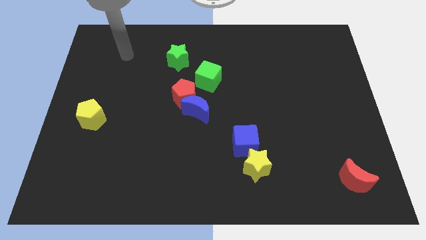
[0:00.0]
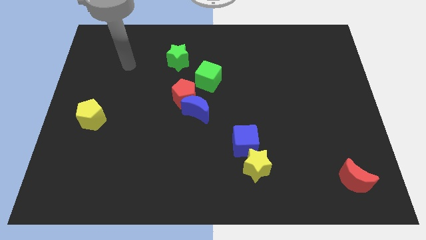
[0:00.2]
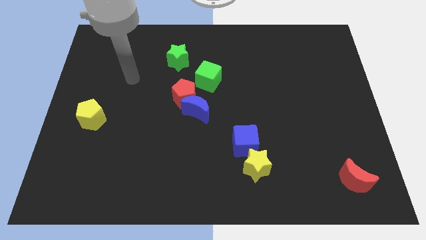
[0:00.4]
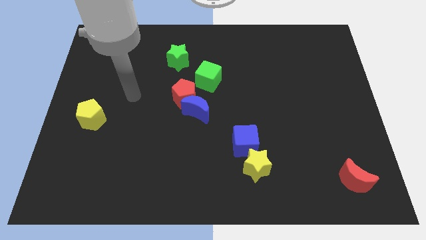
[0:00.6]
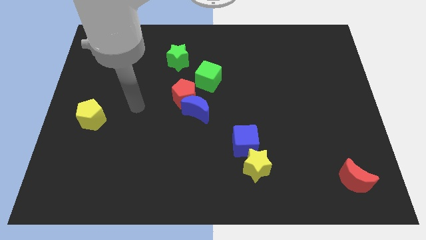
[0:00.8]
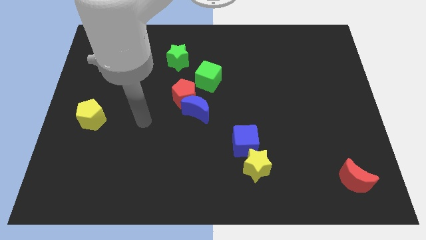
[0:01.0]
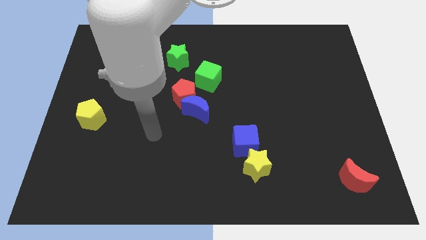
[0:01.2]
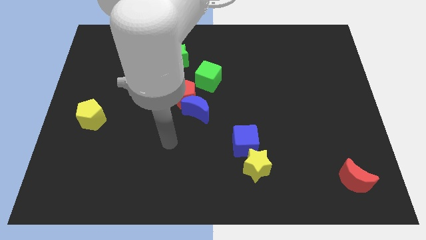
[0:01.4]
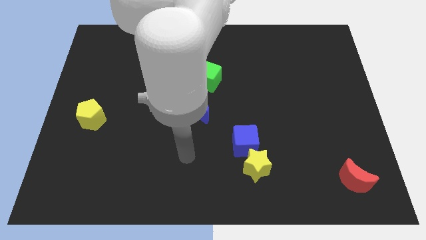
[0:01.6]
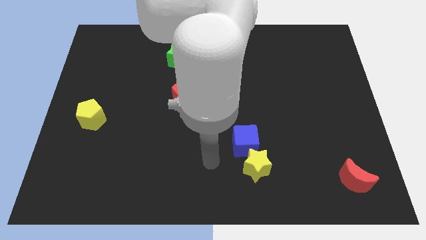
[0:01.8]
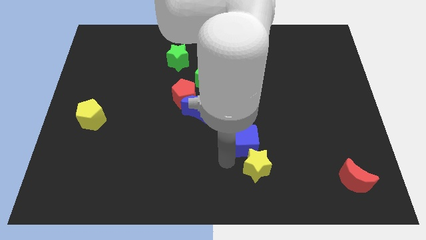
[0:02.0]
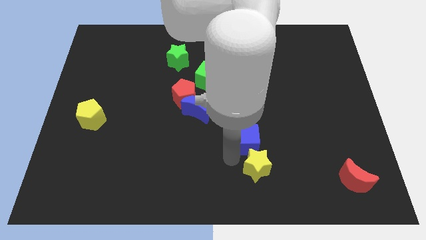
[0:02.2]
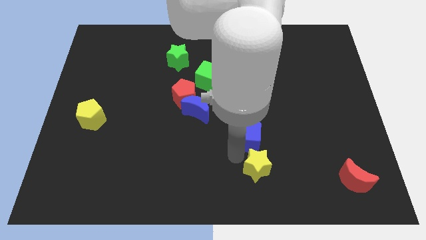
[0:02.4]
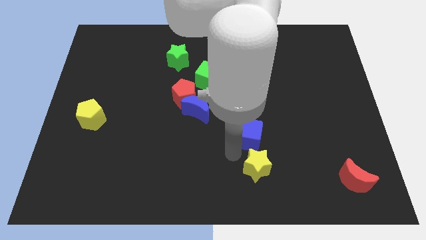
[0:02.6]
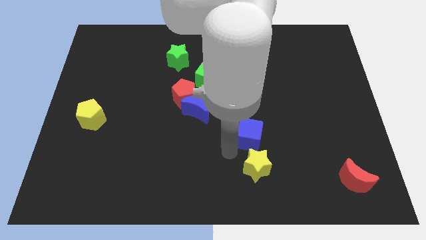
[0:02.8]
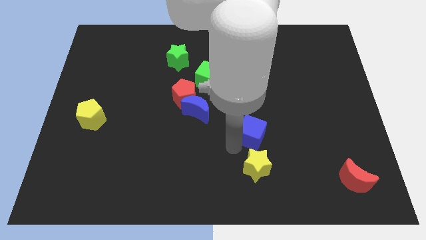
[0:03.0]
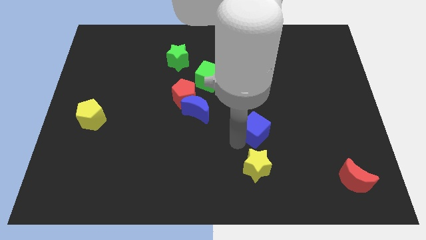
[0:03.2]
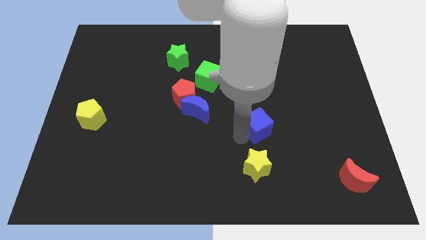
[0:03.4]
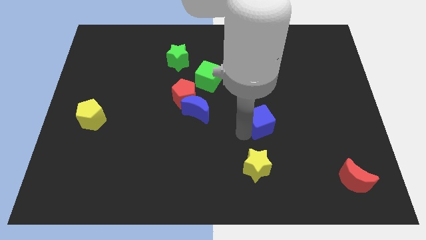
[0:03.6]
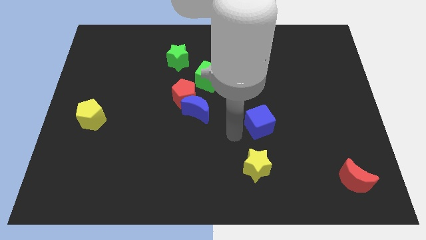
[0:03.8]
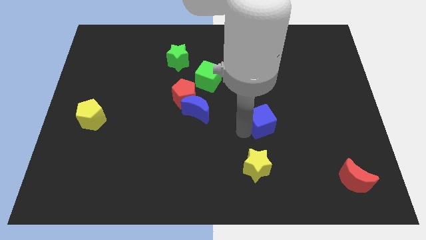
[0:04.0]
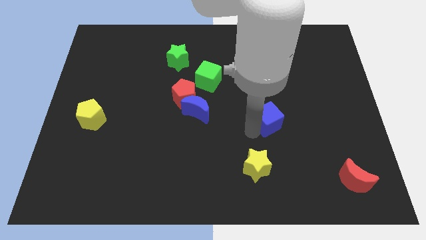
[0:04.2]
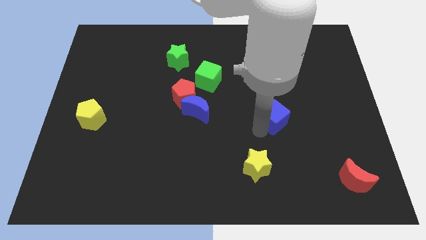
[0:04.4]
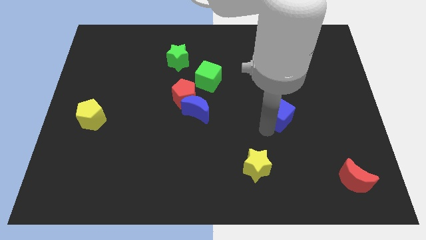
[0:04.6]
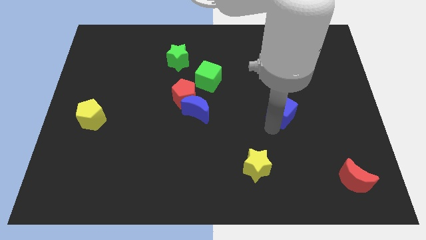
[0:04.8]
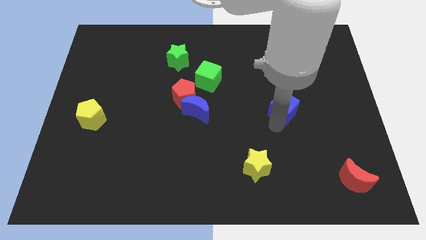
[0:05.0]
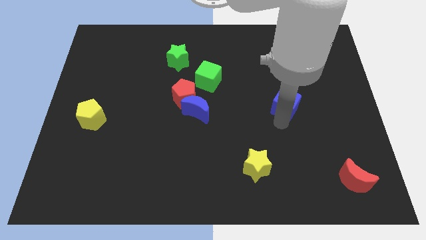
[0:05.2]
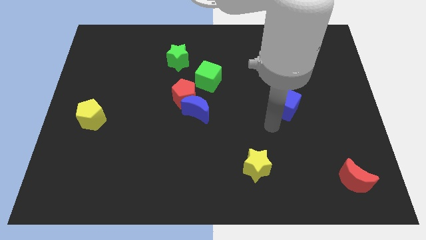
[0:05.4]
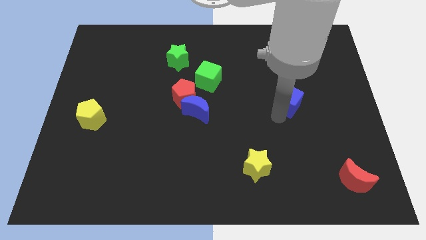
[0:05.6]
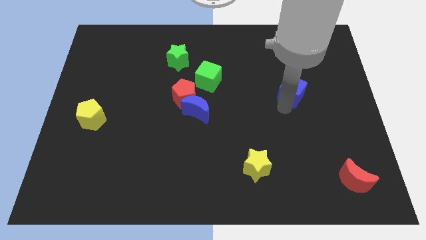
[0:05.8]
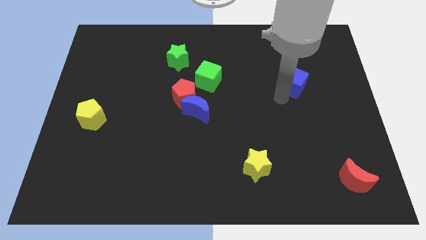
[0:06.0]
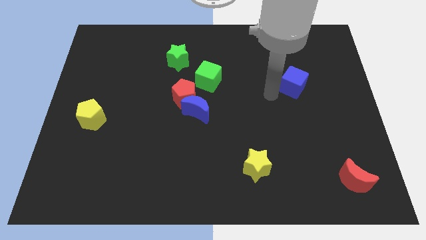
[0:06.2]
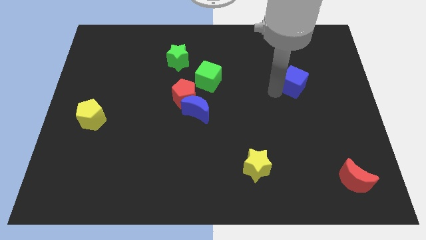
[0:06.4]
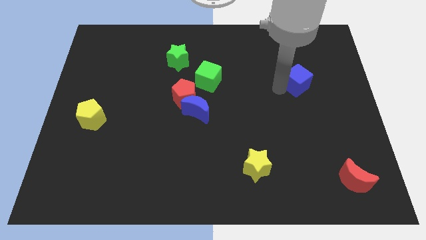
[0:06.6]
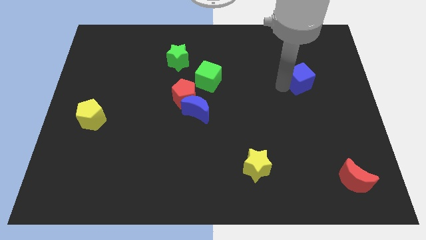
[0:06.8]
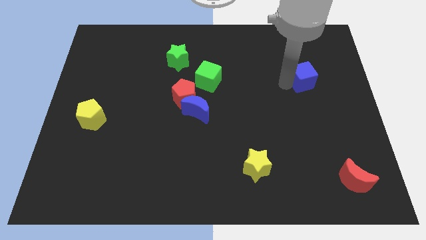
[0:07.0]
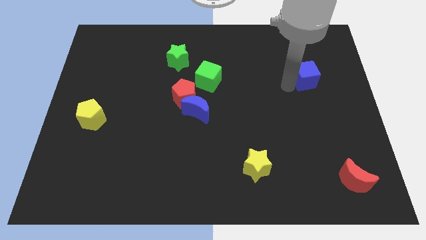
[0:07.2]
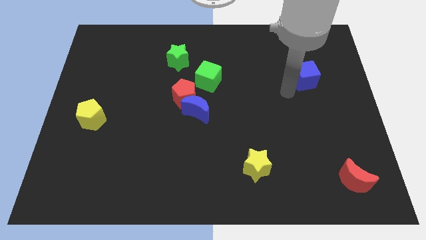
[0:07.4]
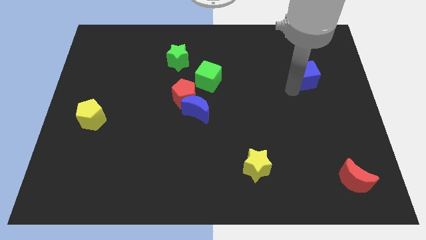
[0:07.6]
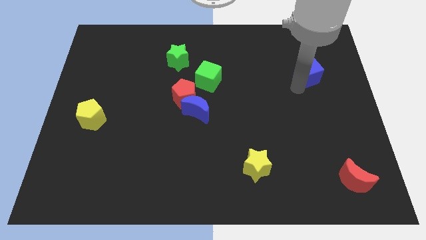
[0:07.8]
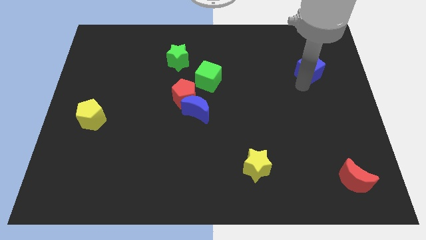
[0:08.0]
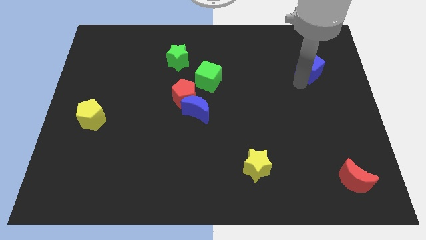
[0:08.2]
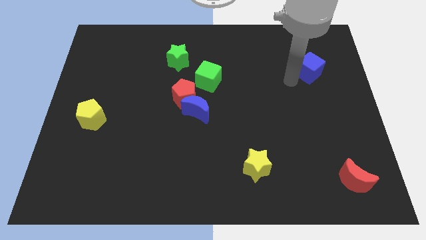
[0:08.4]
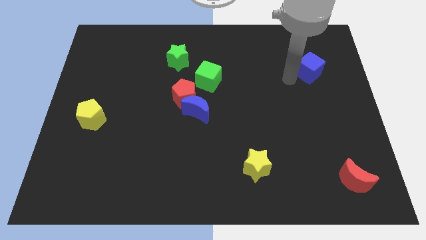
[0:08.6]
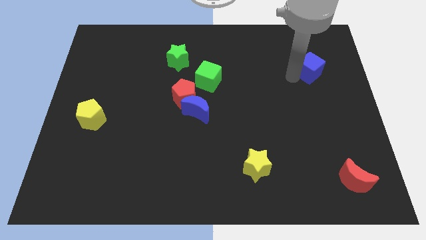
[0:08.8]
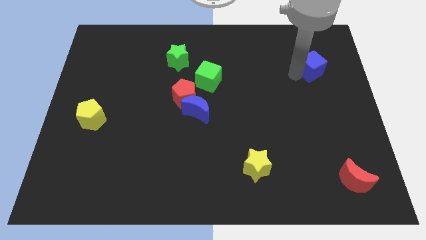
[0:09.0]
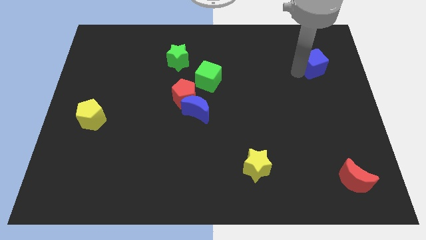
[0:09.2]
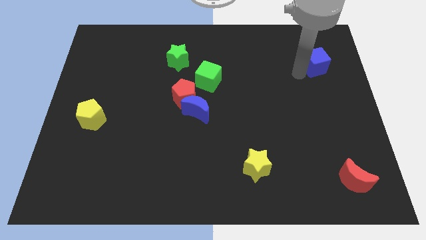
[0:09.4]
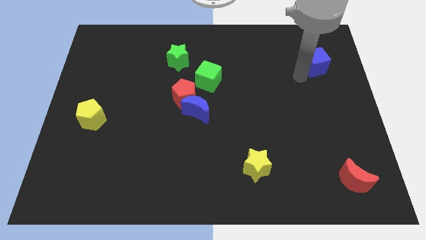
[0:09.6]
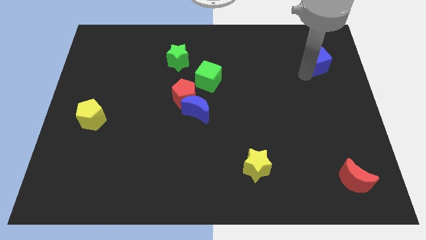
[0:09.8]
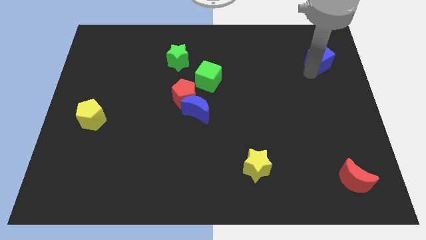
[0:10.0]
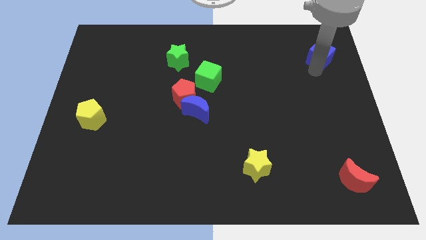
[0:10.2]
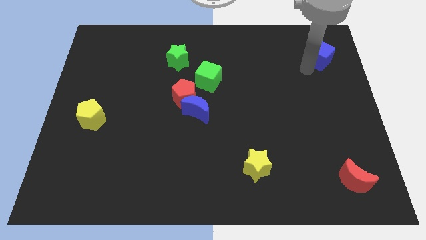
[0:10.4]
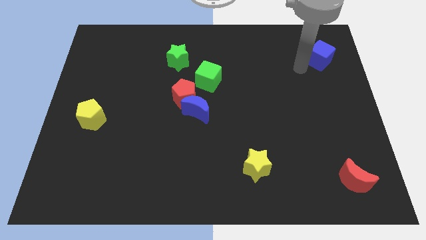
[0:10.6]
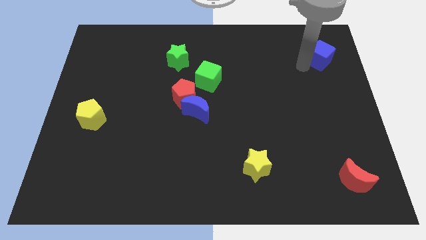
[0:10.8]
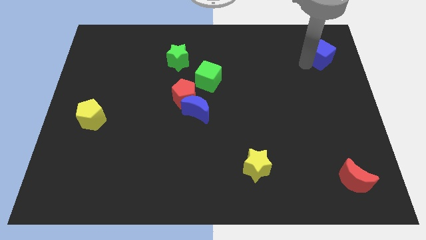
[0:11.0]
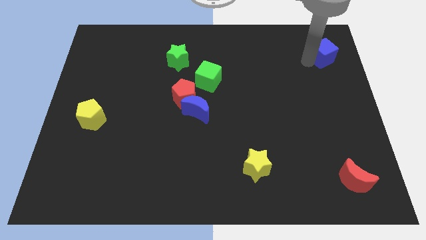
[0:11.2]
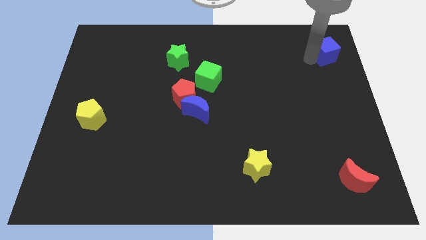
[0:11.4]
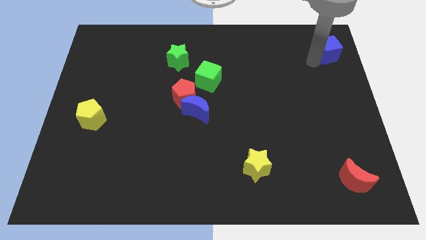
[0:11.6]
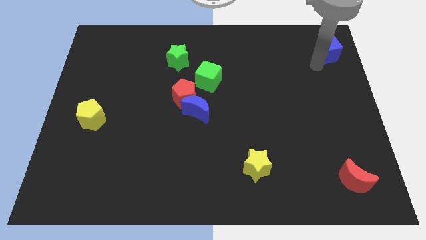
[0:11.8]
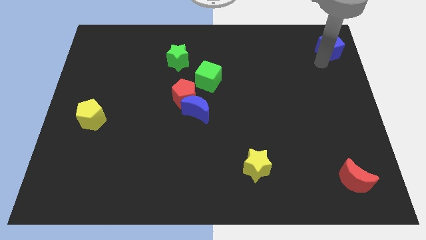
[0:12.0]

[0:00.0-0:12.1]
put the blue cube to the top right

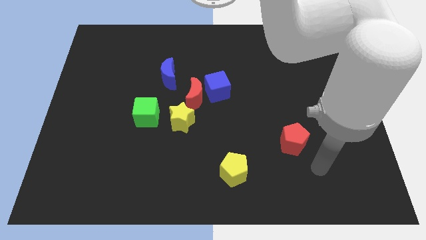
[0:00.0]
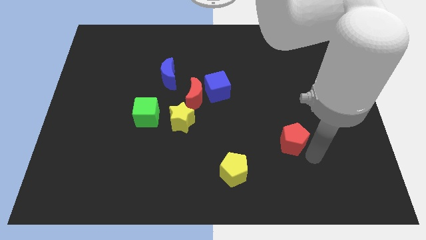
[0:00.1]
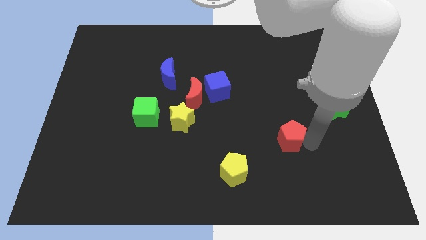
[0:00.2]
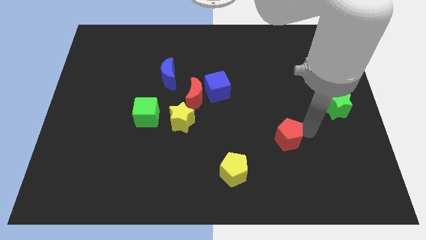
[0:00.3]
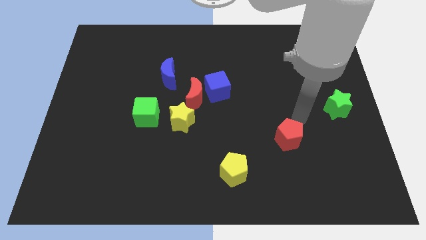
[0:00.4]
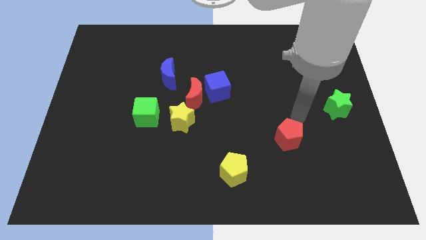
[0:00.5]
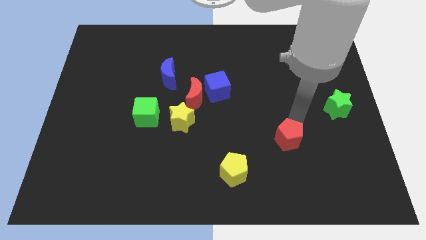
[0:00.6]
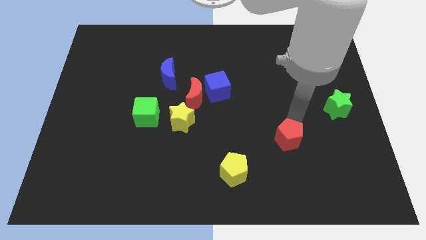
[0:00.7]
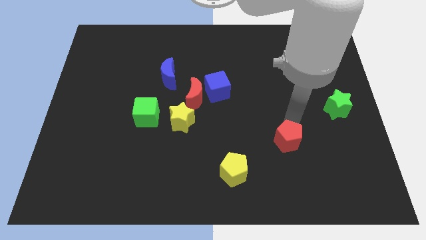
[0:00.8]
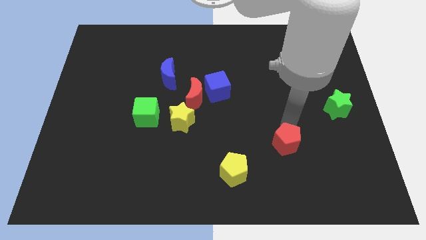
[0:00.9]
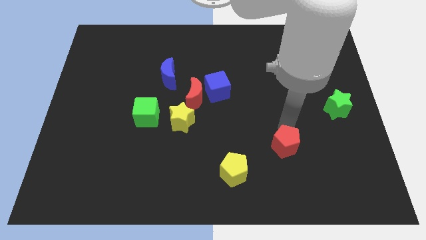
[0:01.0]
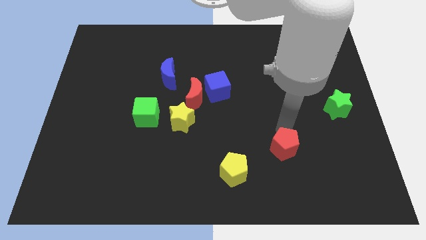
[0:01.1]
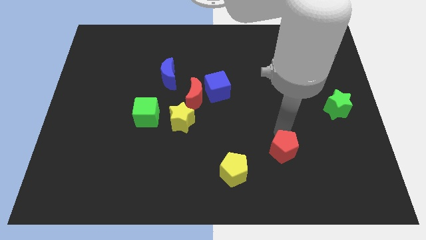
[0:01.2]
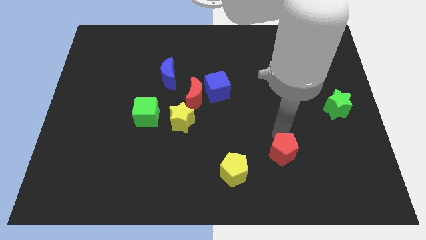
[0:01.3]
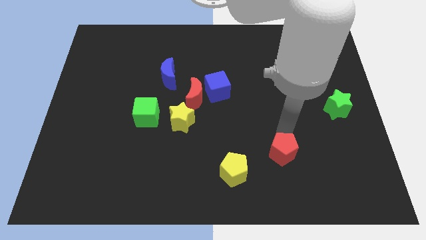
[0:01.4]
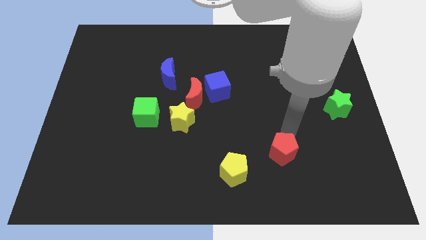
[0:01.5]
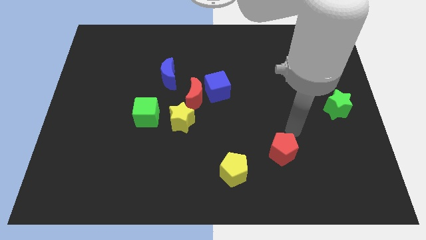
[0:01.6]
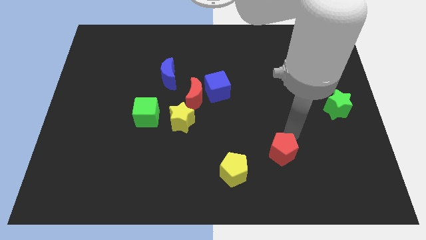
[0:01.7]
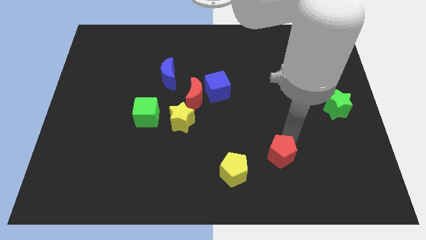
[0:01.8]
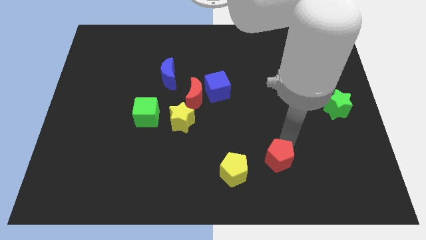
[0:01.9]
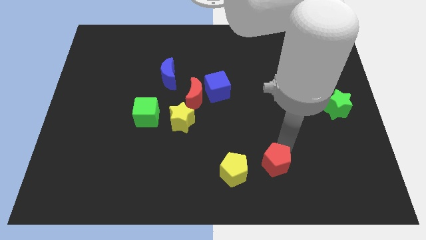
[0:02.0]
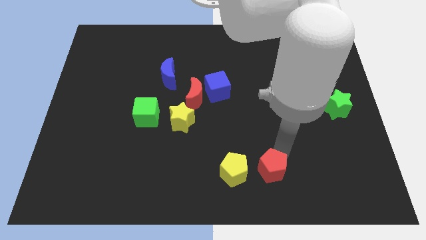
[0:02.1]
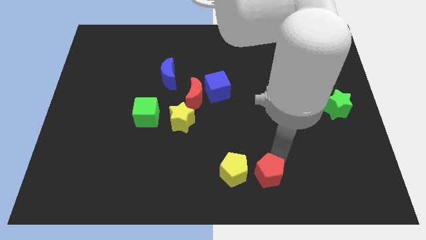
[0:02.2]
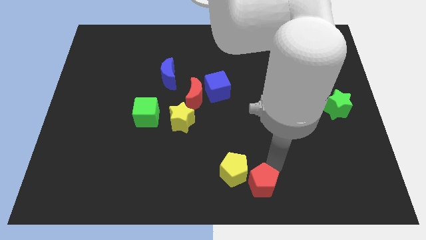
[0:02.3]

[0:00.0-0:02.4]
move the red pentagon to the bottom

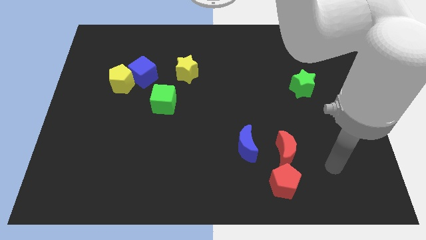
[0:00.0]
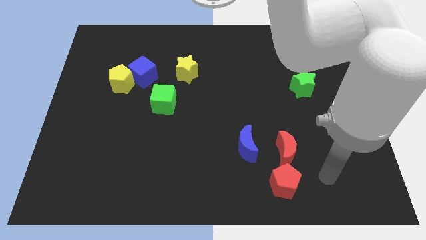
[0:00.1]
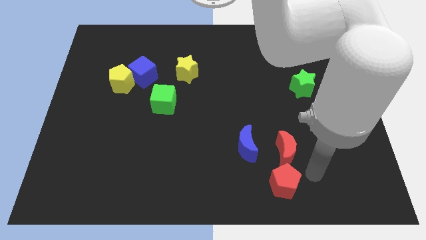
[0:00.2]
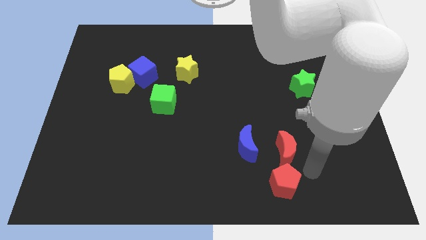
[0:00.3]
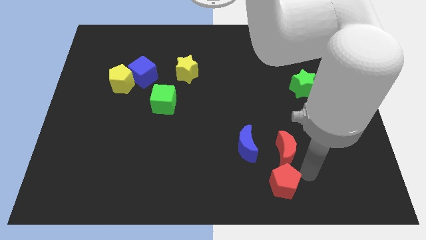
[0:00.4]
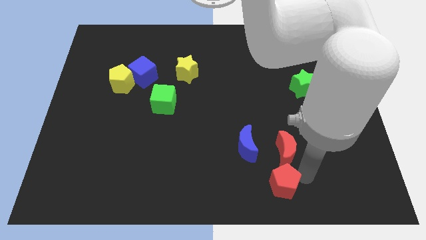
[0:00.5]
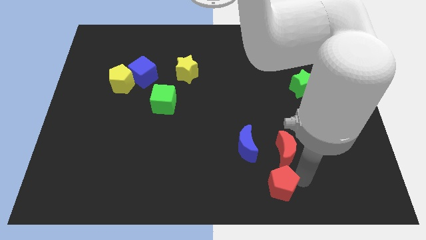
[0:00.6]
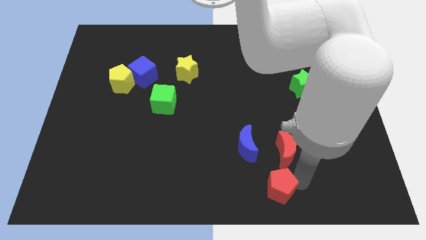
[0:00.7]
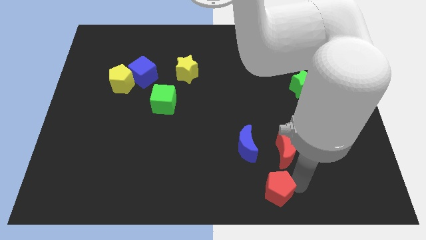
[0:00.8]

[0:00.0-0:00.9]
move the red pentagon to the bottom side
